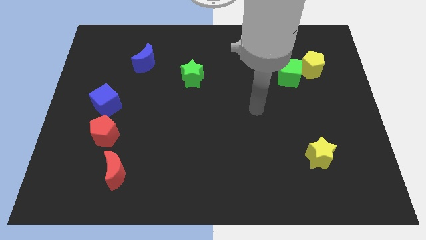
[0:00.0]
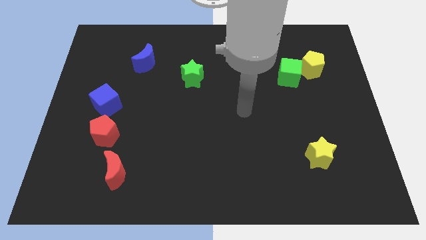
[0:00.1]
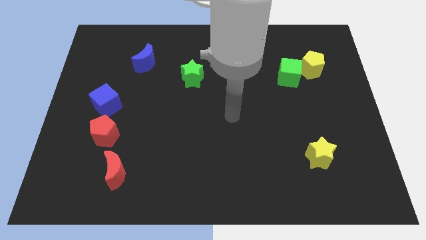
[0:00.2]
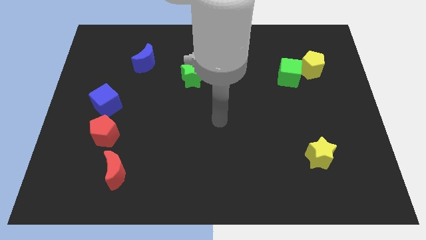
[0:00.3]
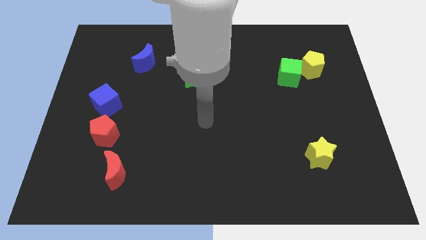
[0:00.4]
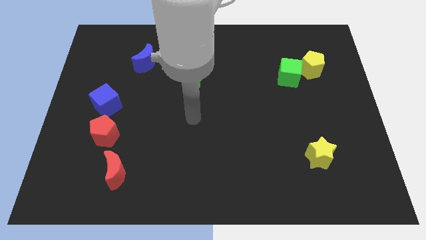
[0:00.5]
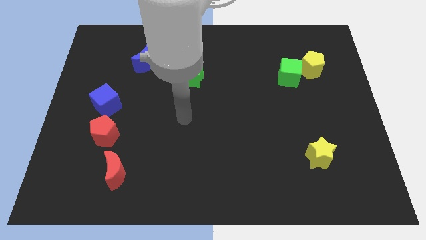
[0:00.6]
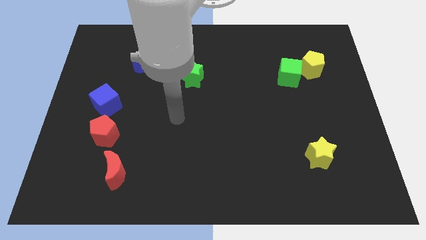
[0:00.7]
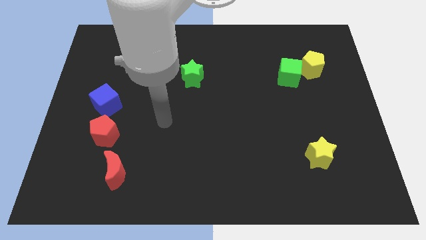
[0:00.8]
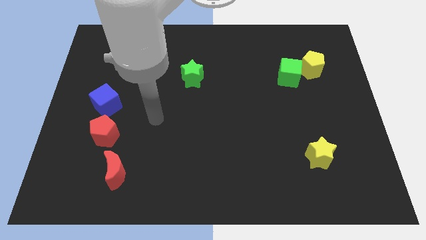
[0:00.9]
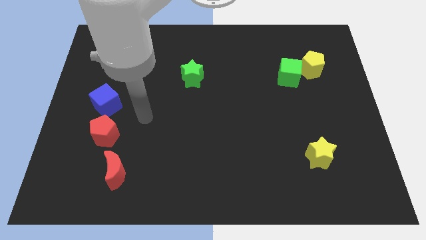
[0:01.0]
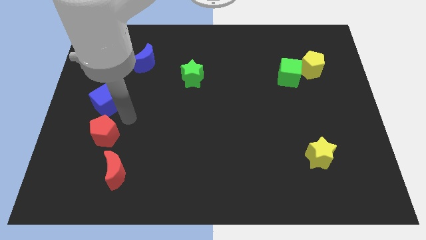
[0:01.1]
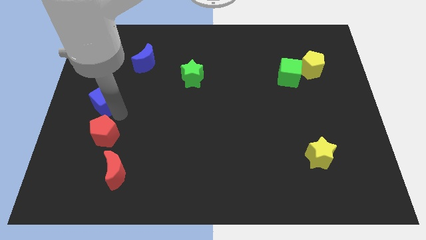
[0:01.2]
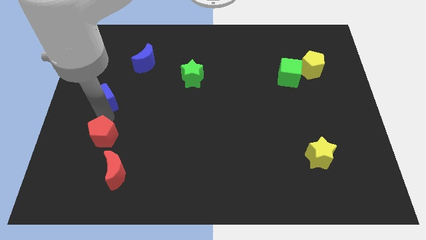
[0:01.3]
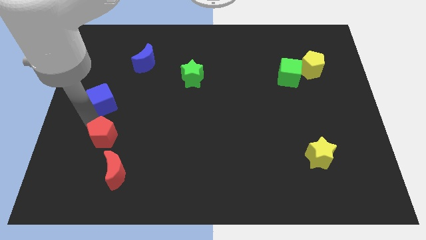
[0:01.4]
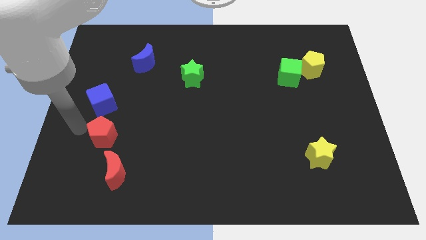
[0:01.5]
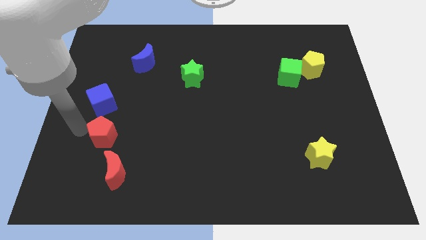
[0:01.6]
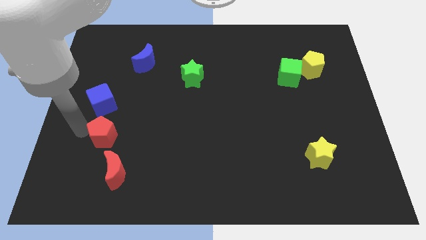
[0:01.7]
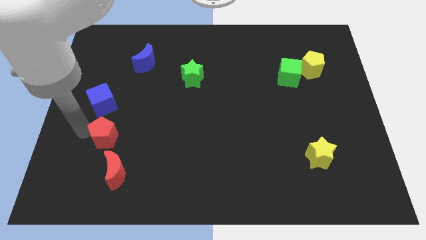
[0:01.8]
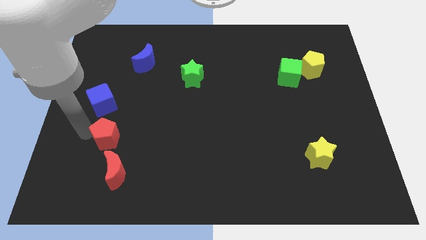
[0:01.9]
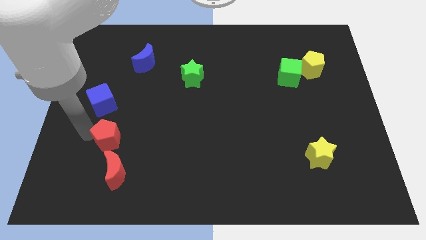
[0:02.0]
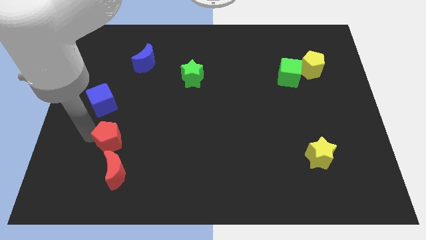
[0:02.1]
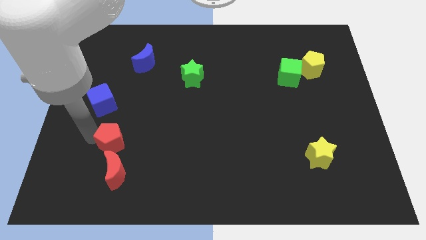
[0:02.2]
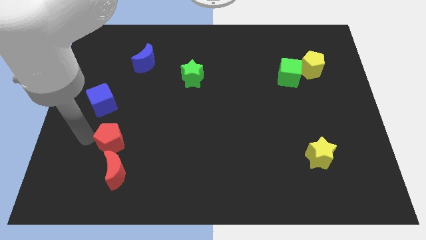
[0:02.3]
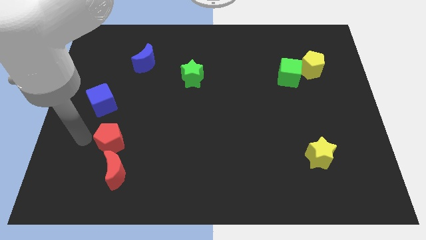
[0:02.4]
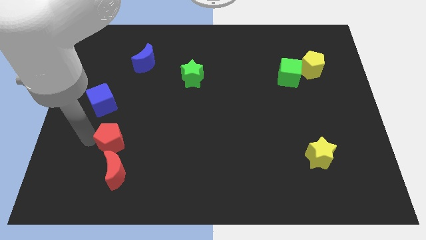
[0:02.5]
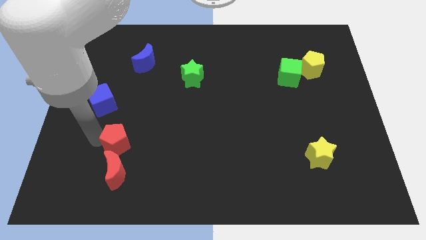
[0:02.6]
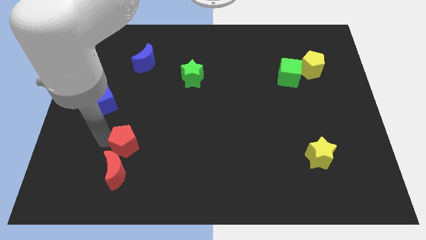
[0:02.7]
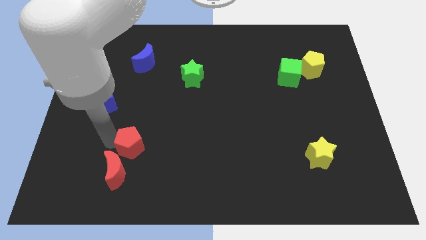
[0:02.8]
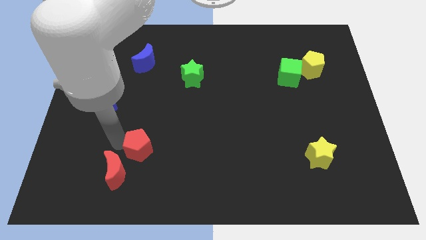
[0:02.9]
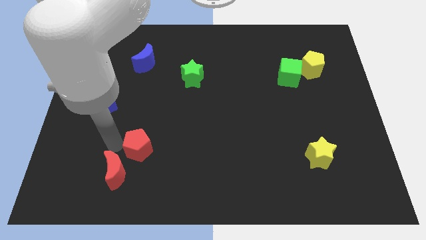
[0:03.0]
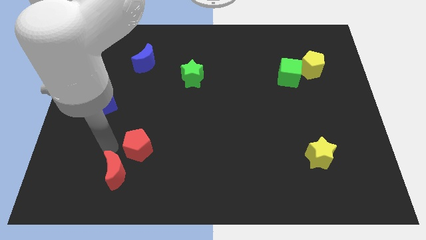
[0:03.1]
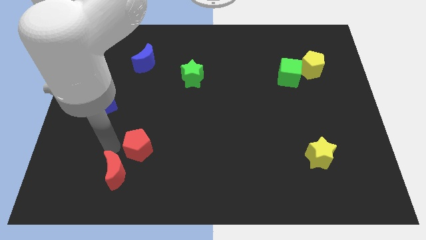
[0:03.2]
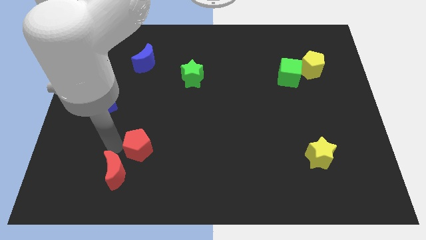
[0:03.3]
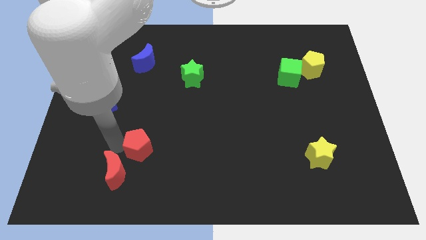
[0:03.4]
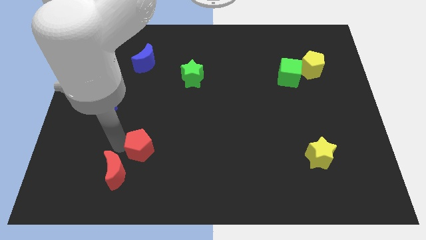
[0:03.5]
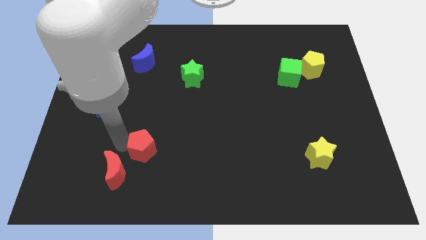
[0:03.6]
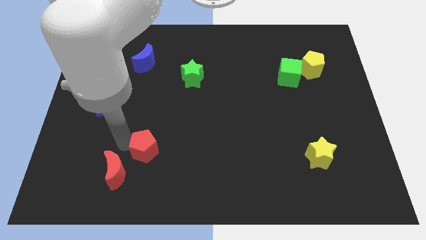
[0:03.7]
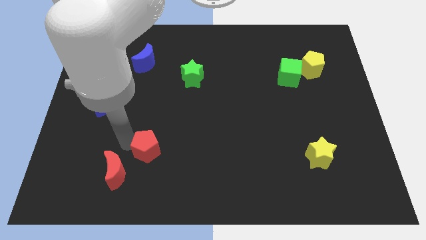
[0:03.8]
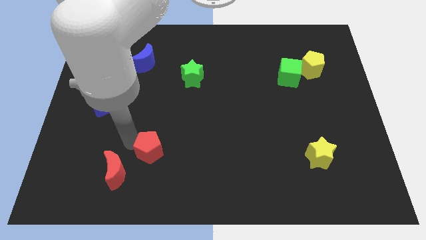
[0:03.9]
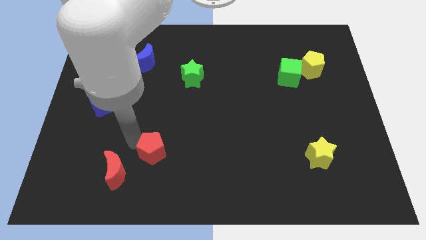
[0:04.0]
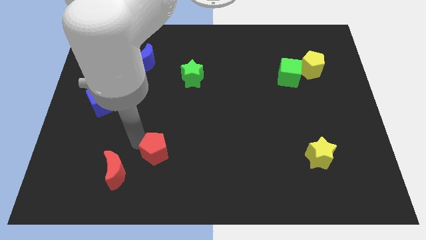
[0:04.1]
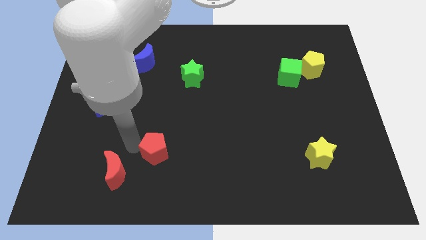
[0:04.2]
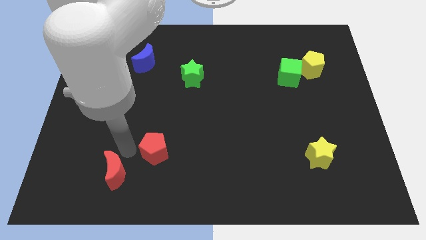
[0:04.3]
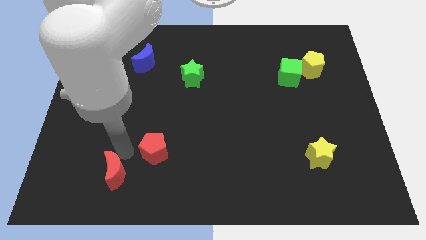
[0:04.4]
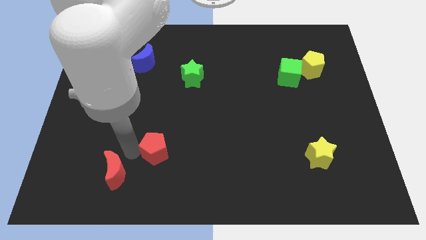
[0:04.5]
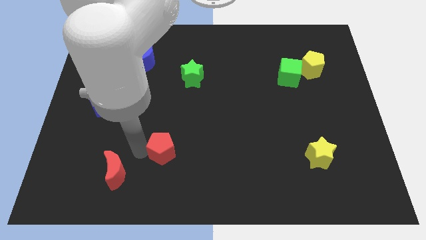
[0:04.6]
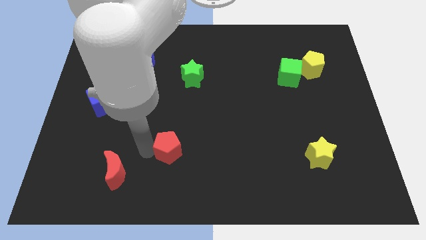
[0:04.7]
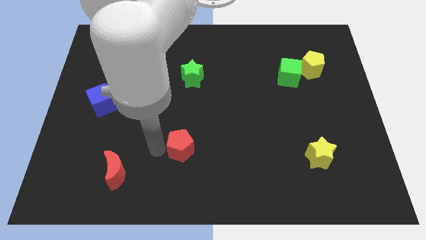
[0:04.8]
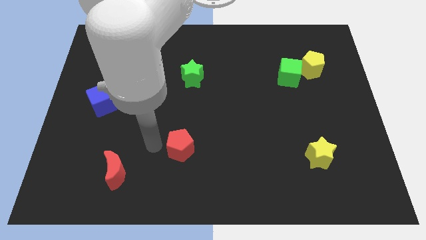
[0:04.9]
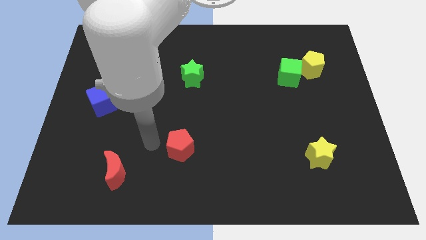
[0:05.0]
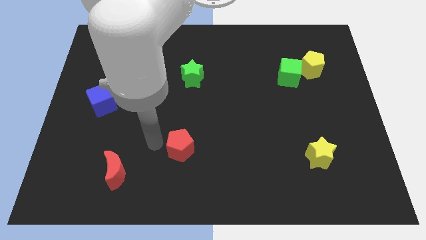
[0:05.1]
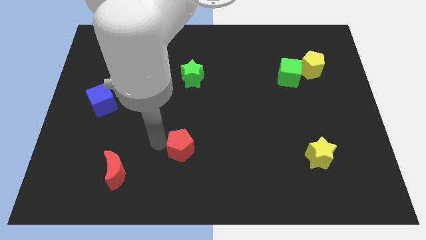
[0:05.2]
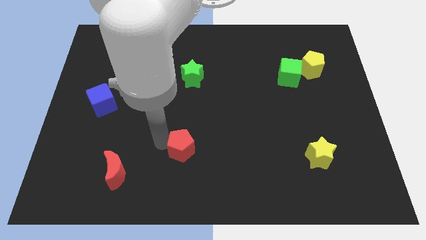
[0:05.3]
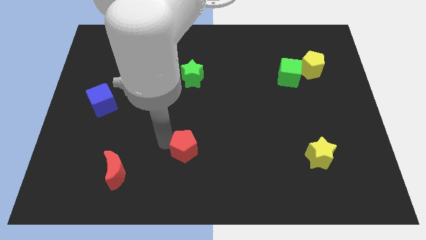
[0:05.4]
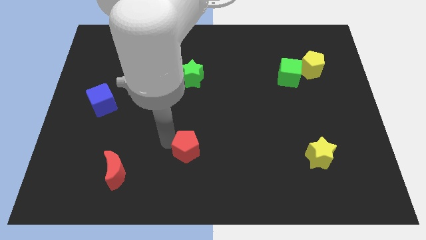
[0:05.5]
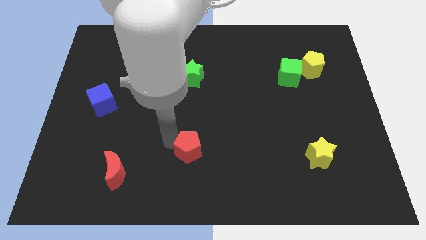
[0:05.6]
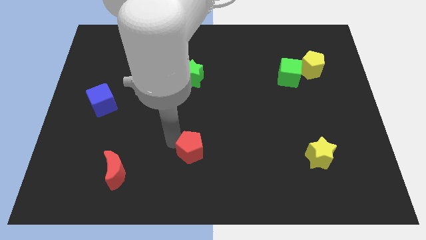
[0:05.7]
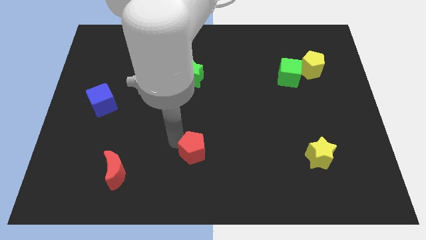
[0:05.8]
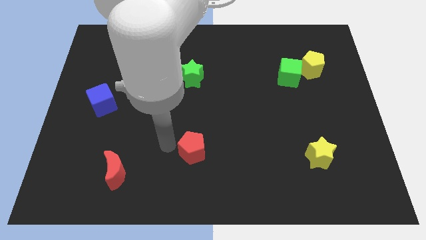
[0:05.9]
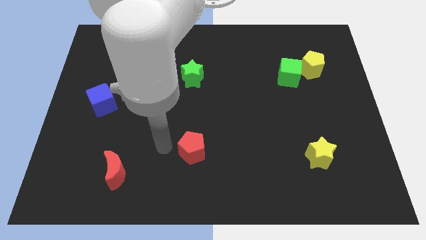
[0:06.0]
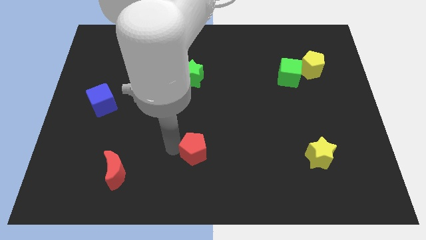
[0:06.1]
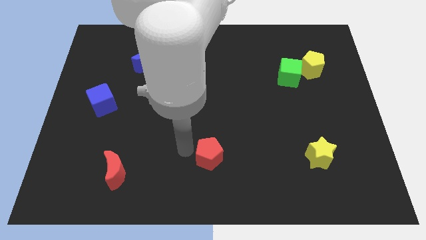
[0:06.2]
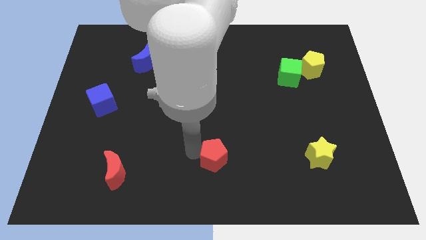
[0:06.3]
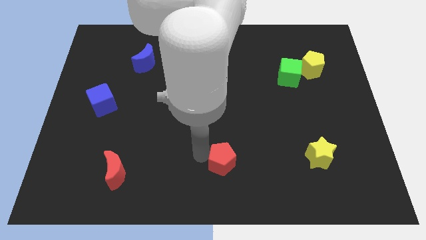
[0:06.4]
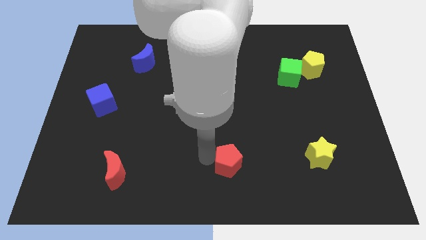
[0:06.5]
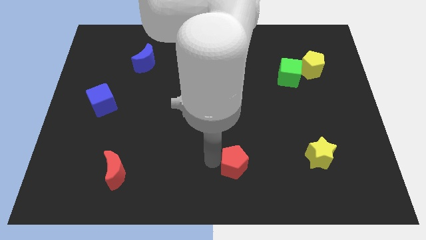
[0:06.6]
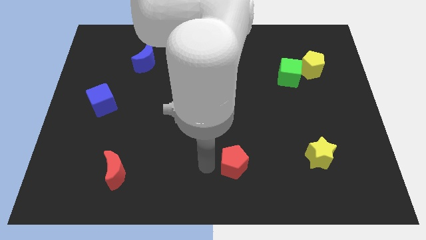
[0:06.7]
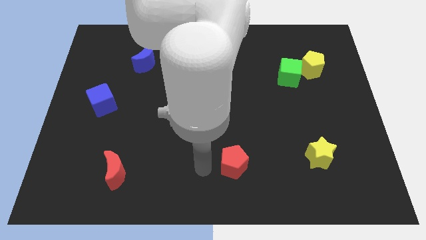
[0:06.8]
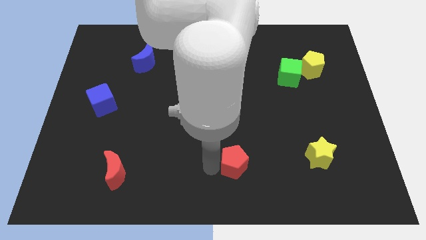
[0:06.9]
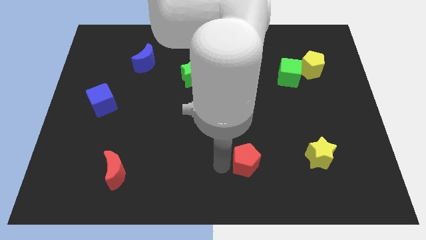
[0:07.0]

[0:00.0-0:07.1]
push the red pentagon just left of the yellow star

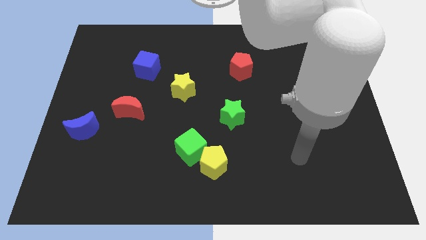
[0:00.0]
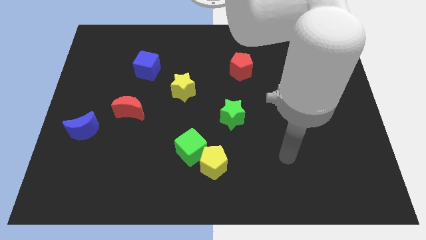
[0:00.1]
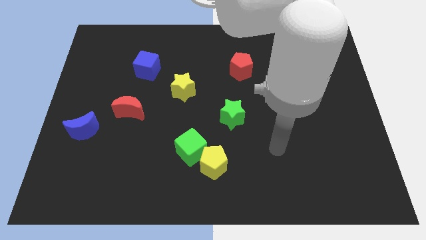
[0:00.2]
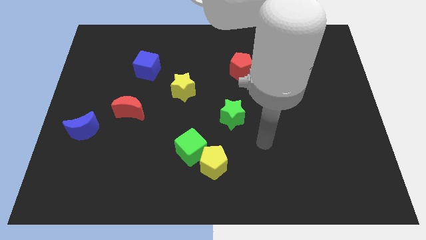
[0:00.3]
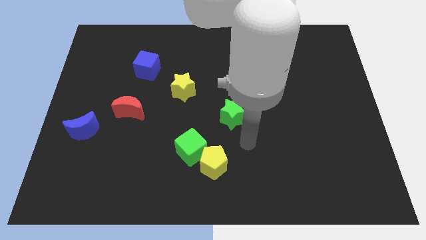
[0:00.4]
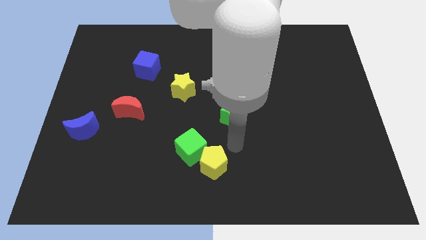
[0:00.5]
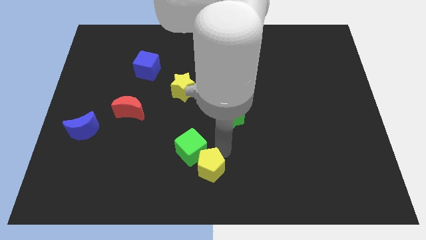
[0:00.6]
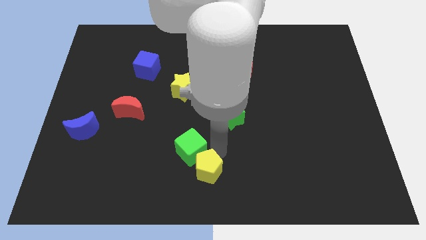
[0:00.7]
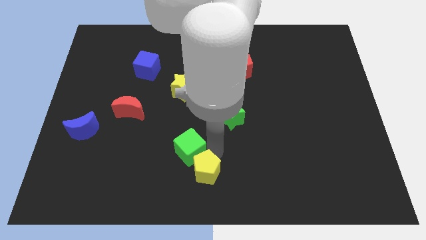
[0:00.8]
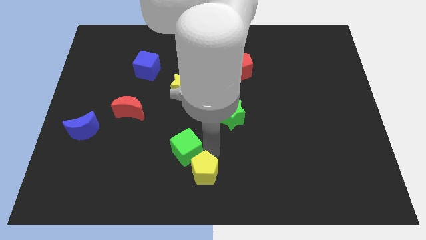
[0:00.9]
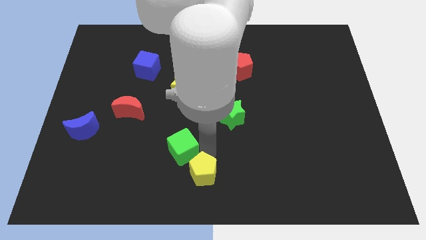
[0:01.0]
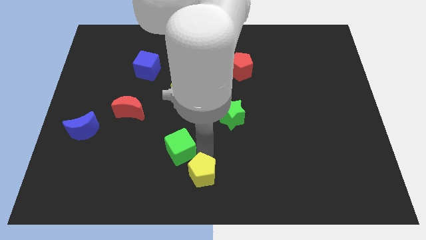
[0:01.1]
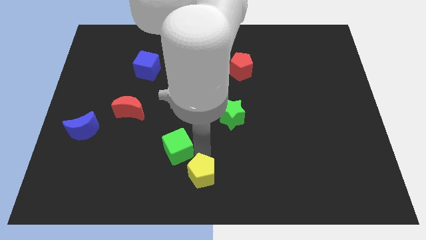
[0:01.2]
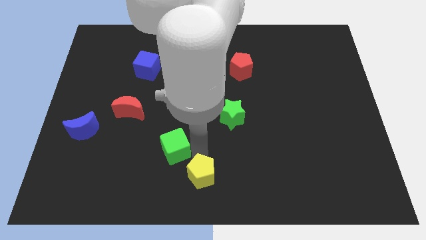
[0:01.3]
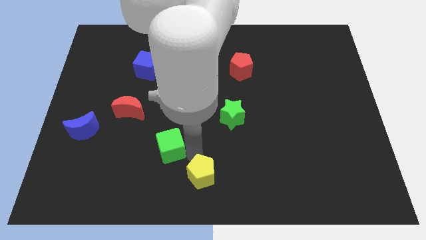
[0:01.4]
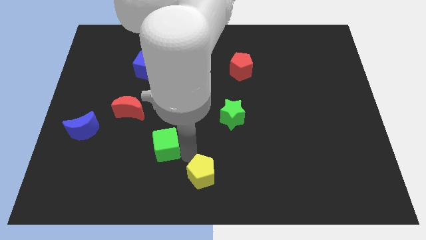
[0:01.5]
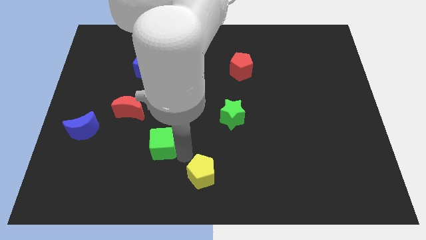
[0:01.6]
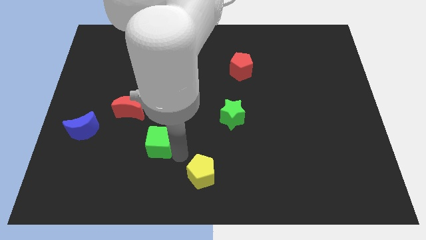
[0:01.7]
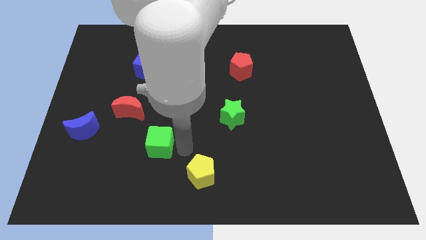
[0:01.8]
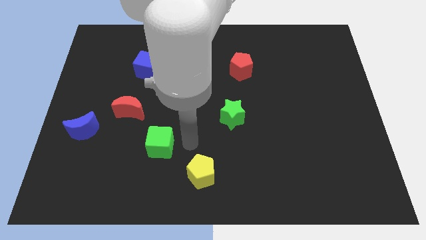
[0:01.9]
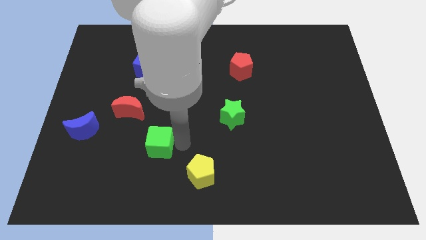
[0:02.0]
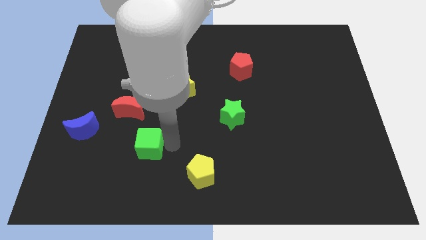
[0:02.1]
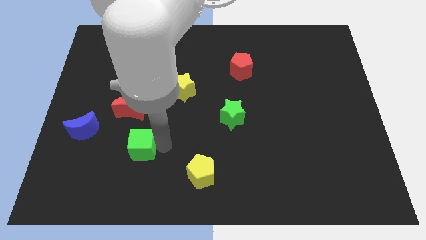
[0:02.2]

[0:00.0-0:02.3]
move the green cube to the bottom side of the red moon
